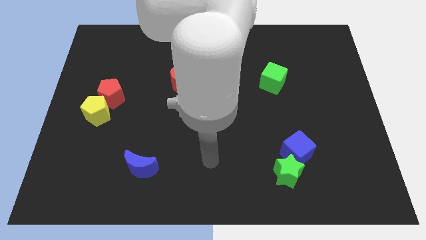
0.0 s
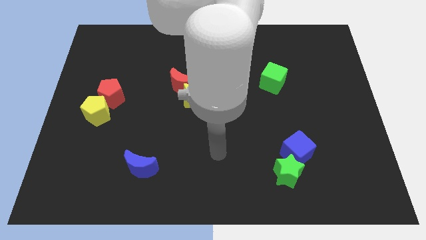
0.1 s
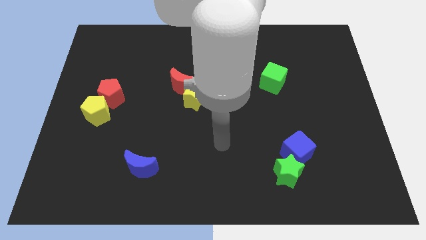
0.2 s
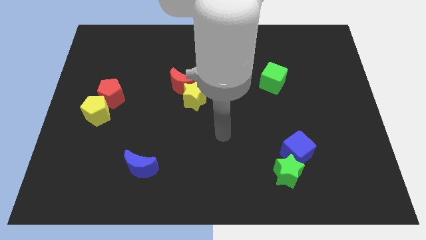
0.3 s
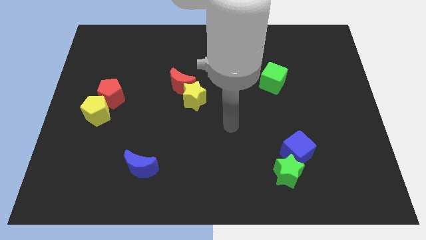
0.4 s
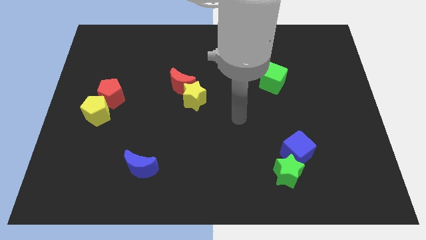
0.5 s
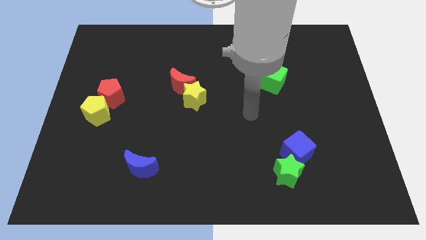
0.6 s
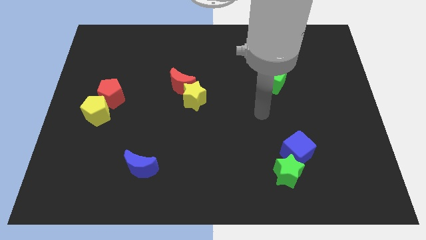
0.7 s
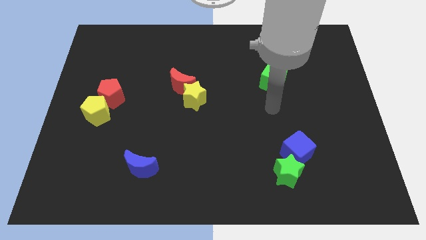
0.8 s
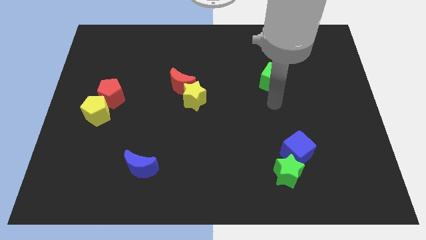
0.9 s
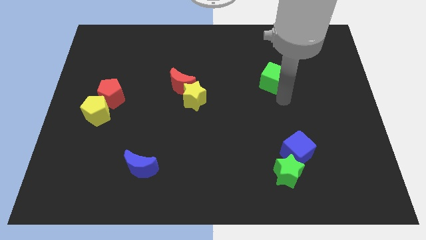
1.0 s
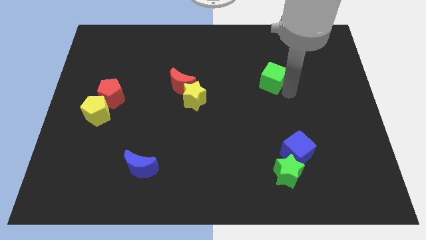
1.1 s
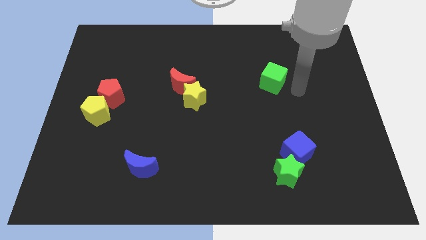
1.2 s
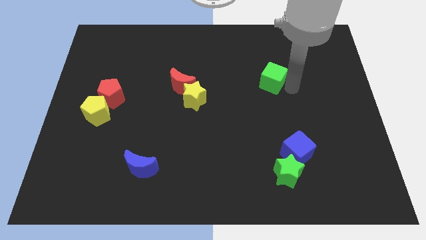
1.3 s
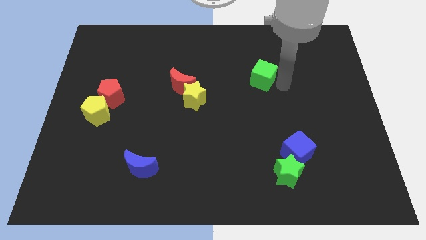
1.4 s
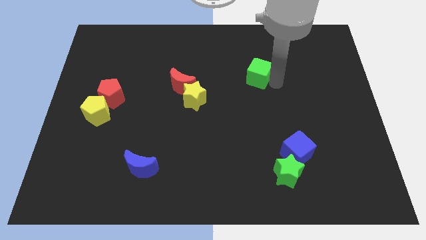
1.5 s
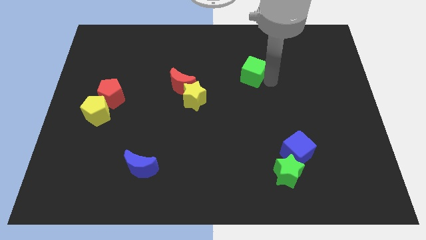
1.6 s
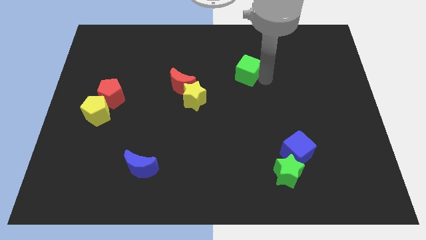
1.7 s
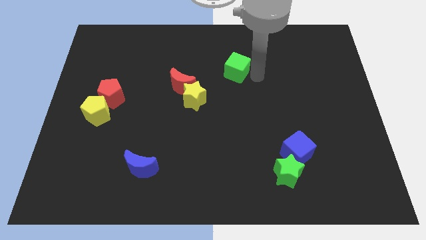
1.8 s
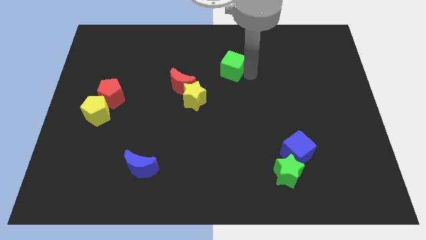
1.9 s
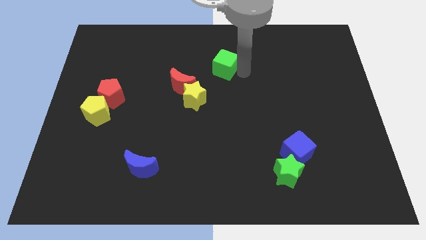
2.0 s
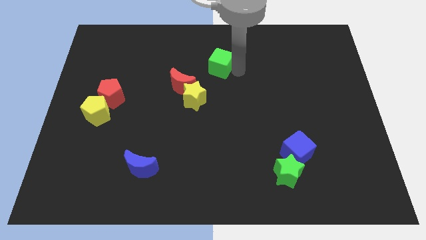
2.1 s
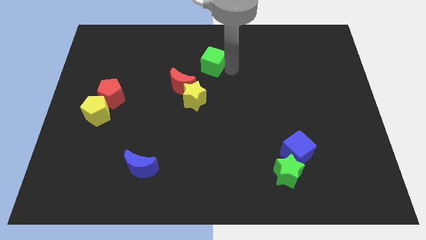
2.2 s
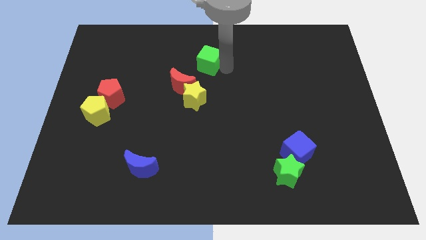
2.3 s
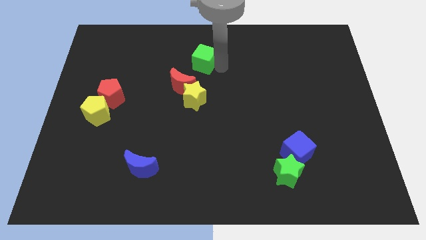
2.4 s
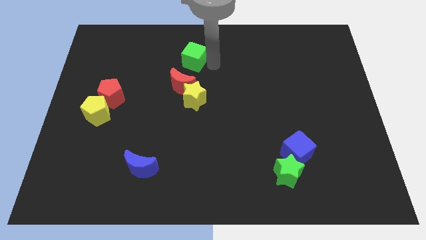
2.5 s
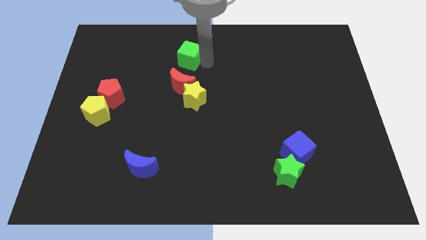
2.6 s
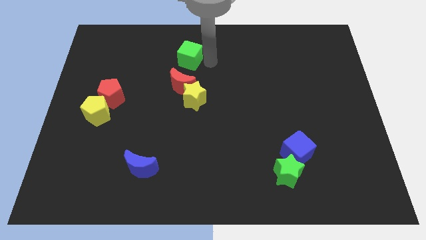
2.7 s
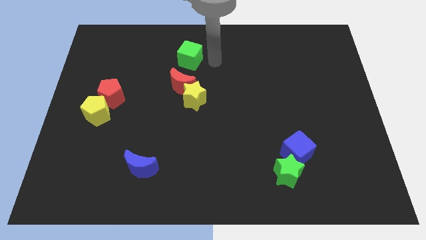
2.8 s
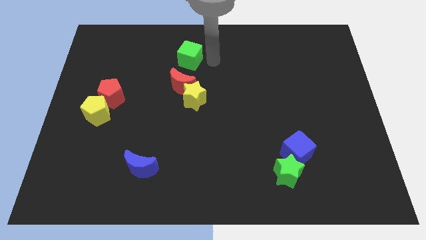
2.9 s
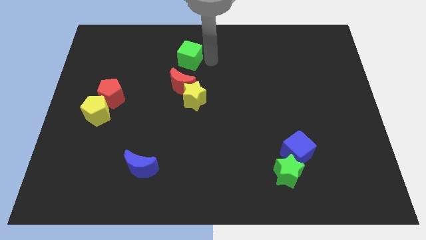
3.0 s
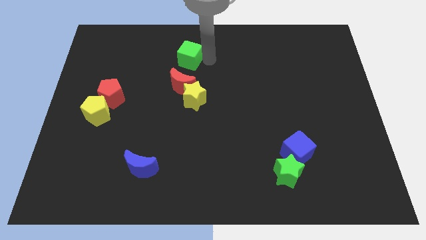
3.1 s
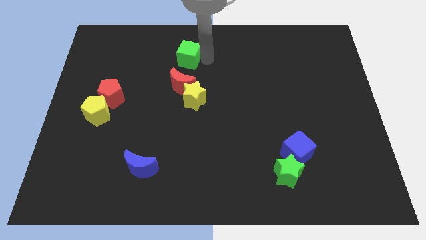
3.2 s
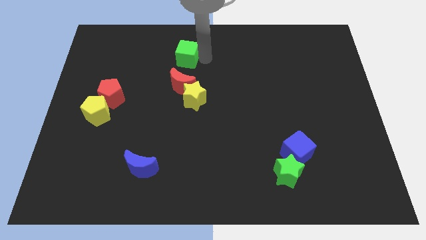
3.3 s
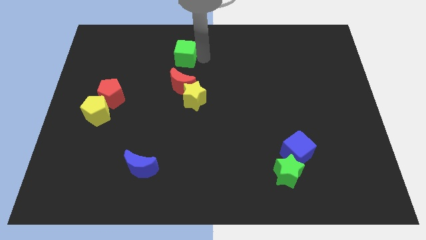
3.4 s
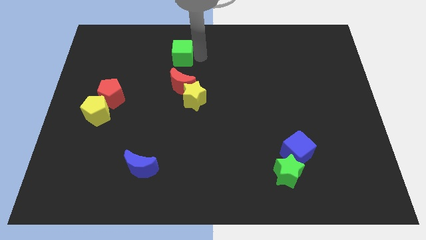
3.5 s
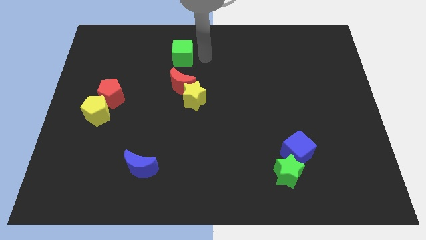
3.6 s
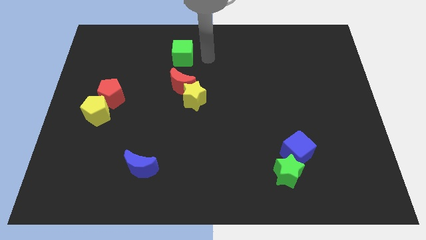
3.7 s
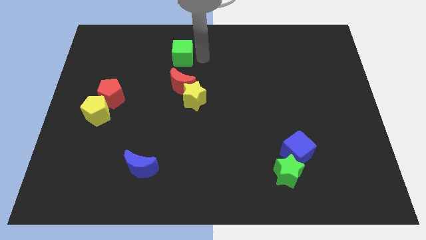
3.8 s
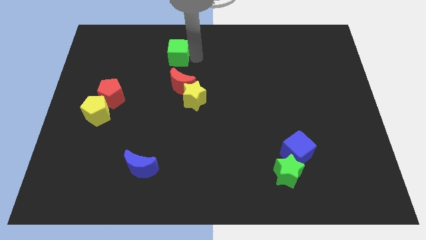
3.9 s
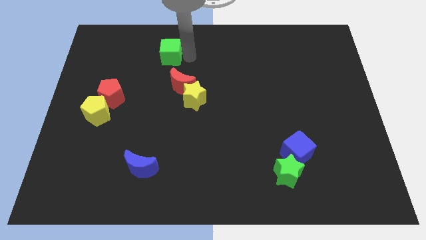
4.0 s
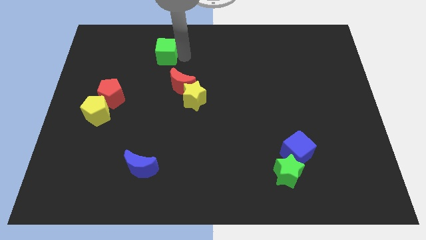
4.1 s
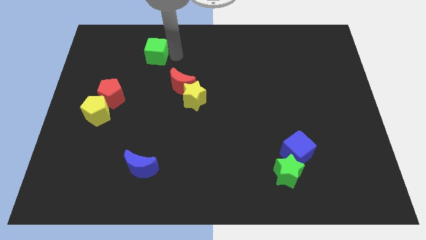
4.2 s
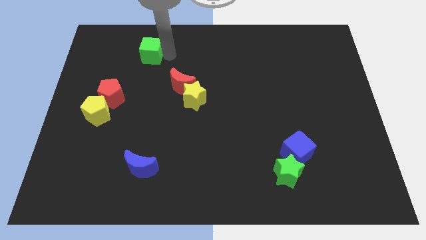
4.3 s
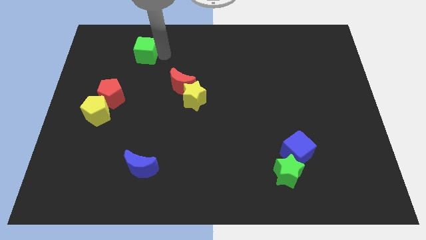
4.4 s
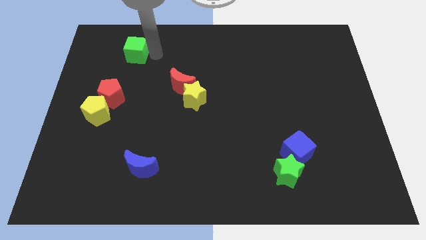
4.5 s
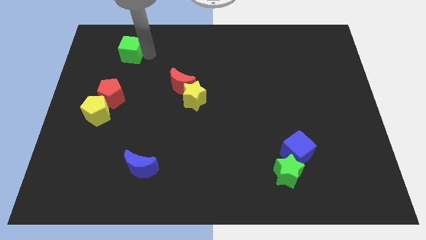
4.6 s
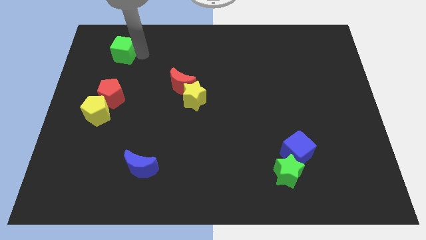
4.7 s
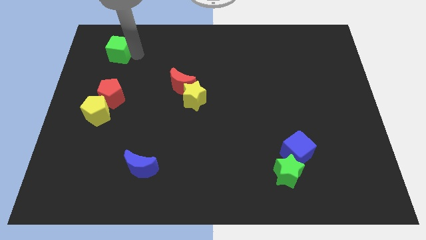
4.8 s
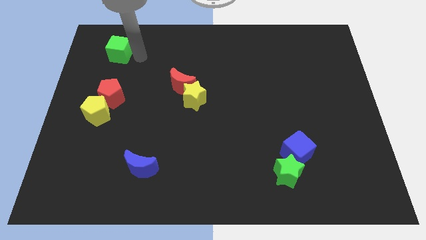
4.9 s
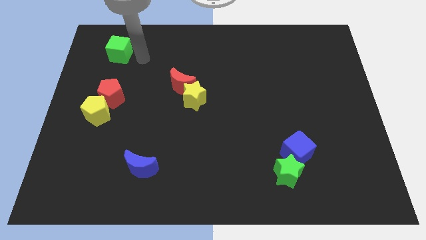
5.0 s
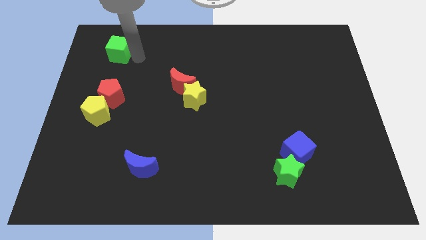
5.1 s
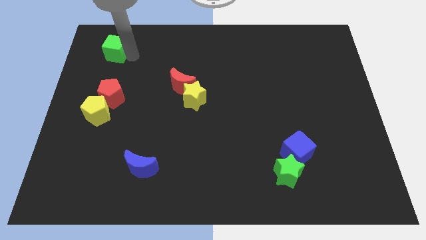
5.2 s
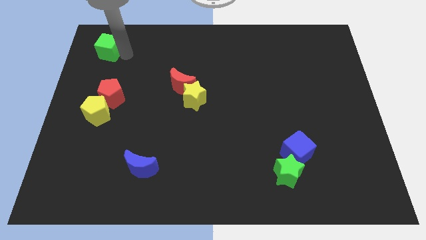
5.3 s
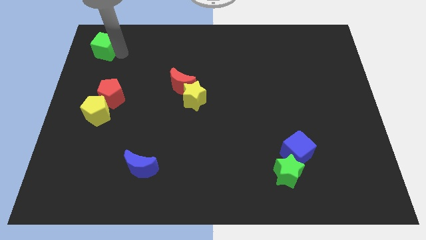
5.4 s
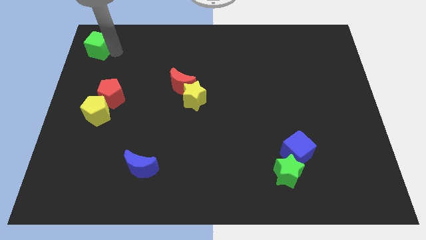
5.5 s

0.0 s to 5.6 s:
put the green cube to the top left corner

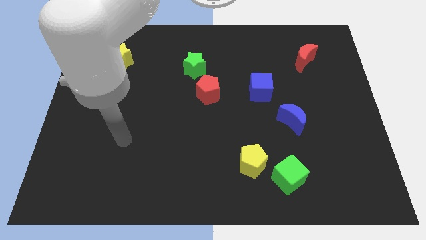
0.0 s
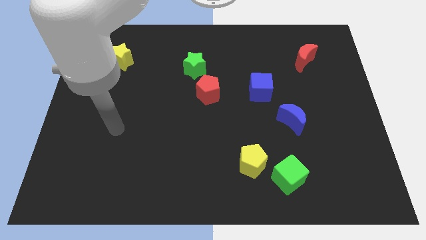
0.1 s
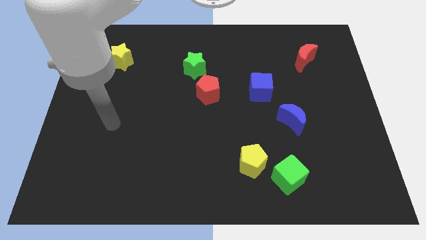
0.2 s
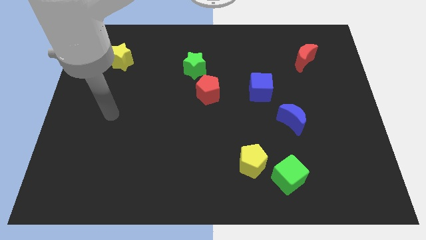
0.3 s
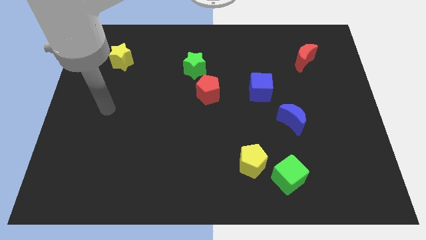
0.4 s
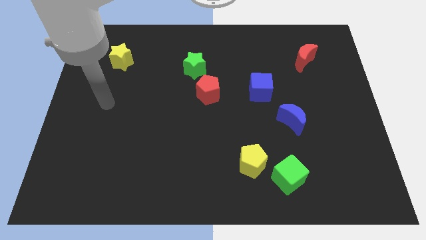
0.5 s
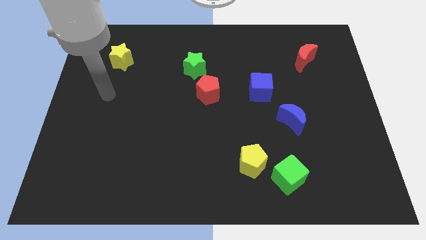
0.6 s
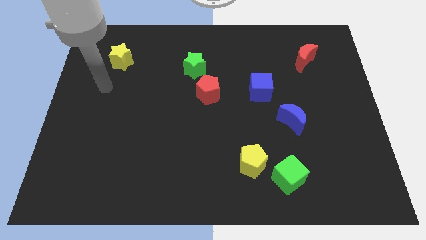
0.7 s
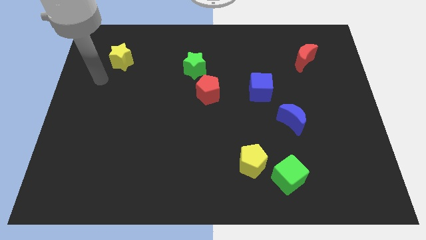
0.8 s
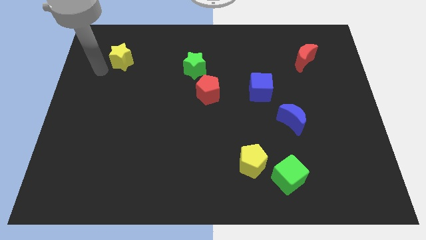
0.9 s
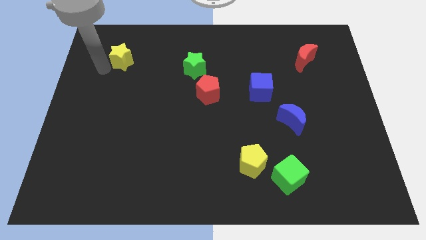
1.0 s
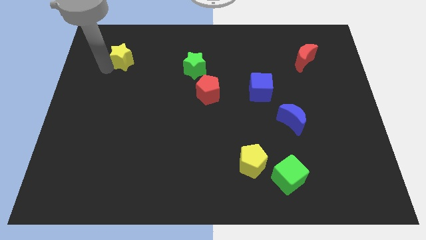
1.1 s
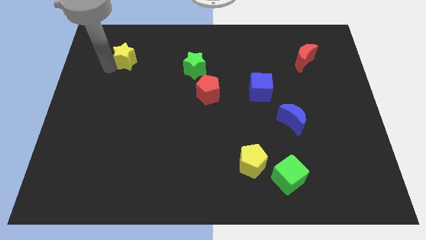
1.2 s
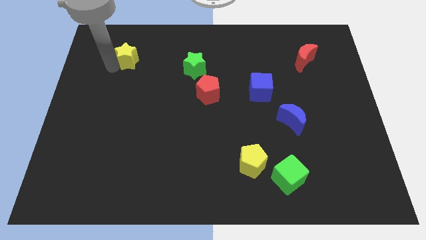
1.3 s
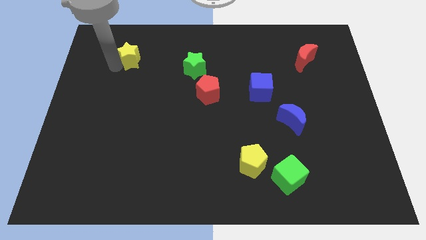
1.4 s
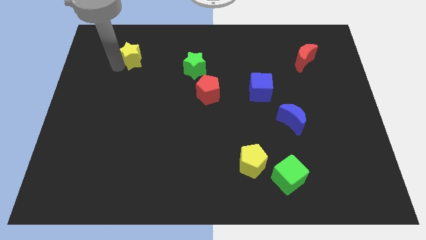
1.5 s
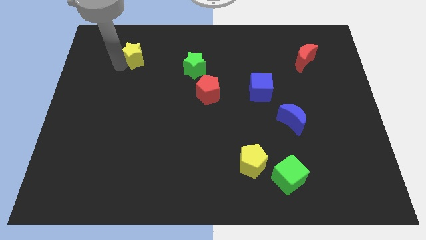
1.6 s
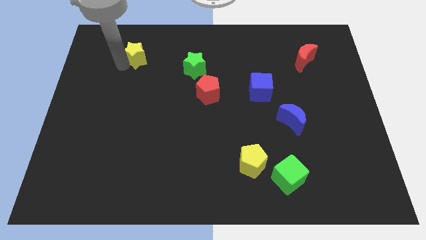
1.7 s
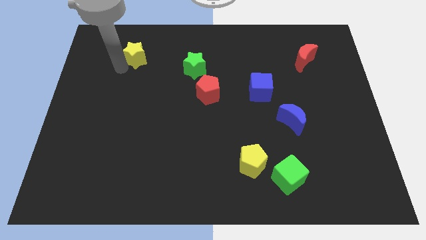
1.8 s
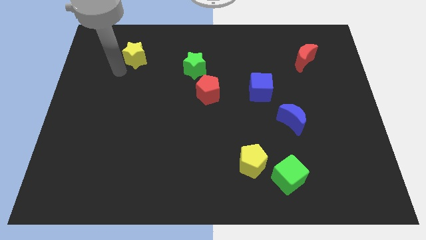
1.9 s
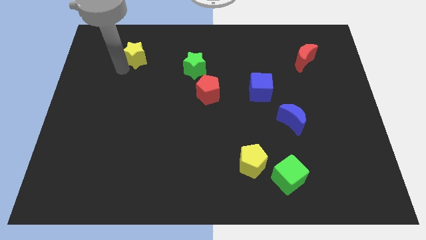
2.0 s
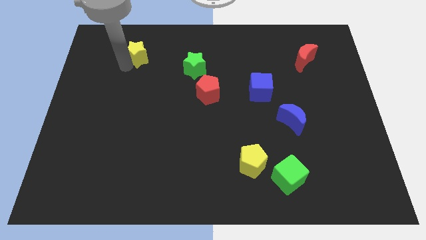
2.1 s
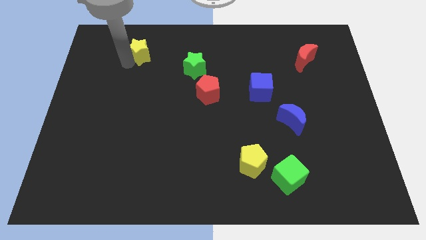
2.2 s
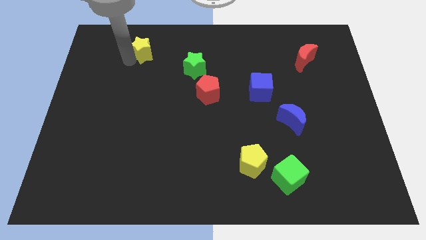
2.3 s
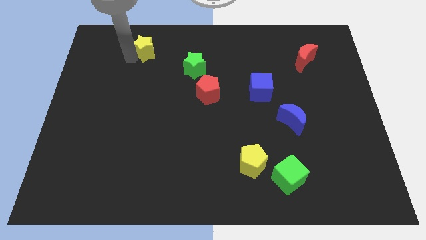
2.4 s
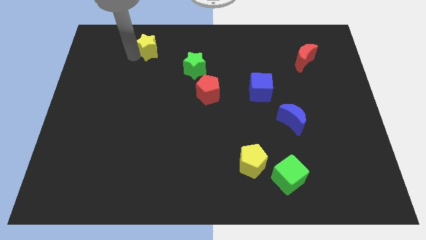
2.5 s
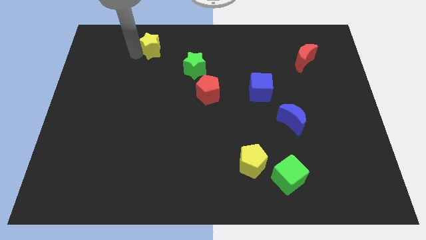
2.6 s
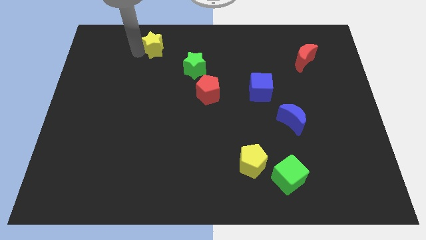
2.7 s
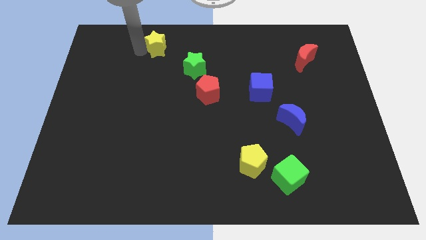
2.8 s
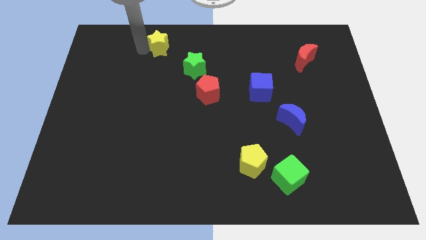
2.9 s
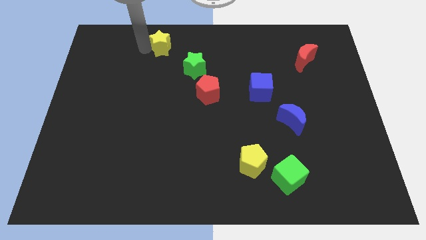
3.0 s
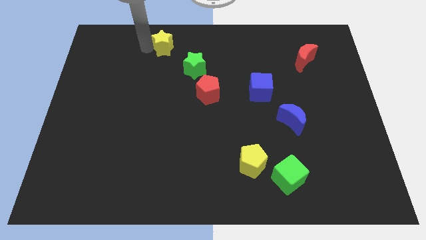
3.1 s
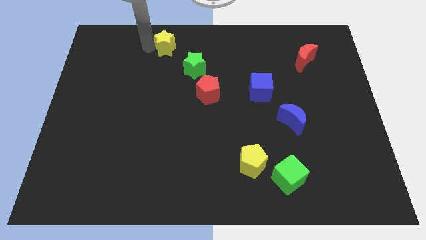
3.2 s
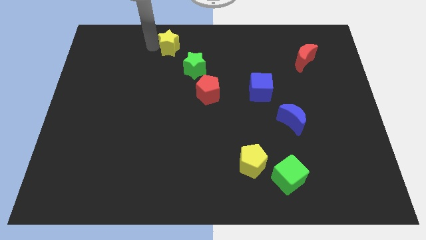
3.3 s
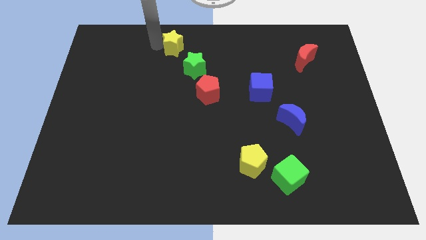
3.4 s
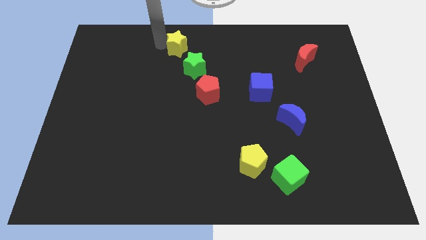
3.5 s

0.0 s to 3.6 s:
put the yellow star to the top
